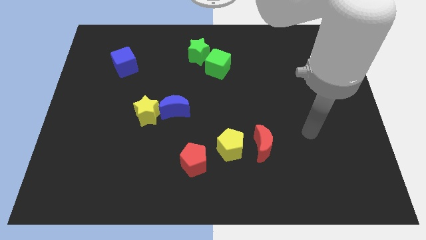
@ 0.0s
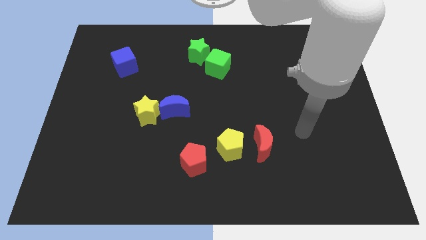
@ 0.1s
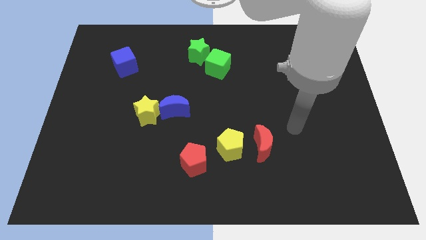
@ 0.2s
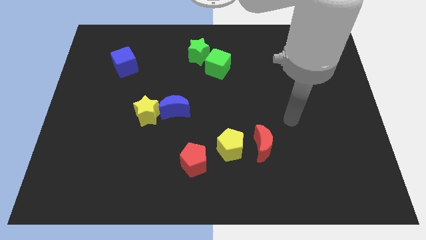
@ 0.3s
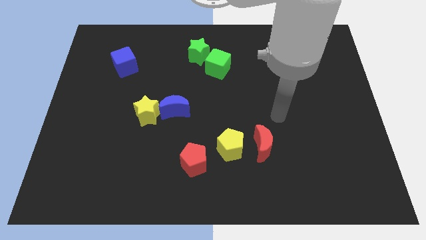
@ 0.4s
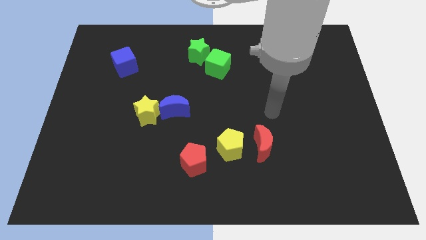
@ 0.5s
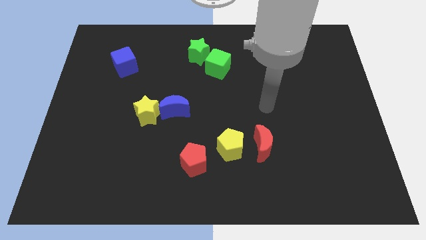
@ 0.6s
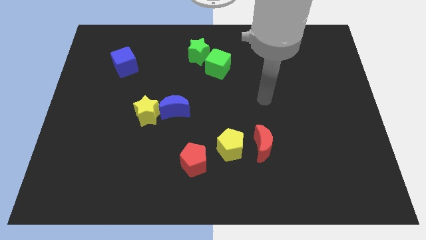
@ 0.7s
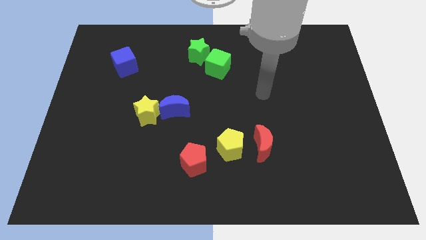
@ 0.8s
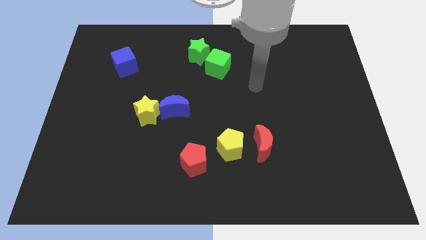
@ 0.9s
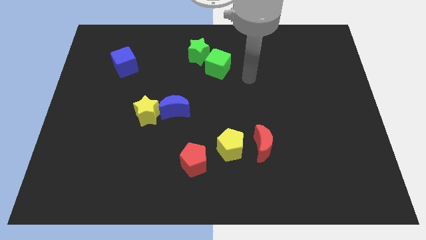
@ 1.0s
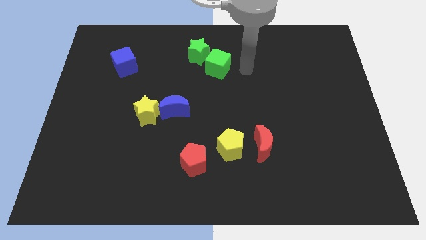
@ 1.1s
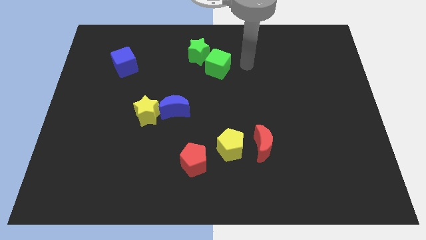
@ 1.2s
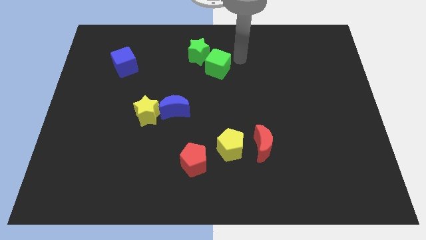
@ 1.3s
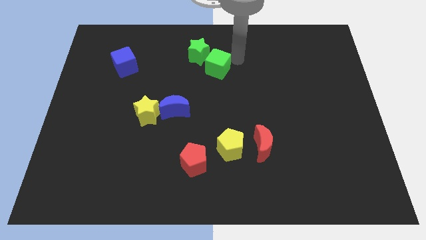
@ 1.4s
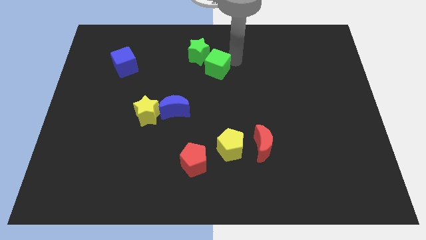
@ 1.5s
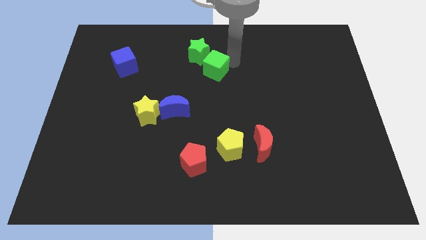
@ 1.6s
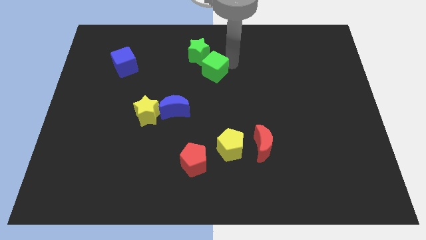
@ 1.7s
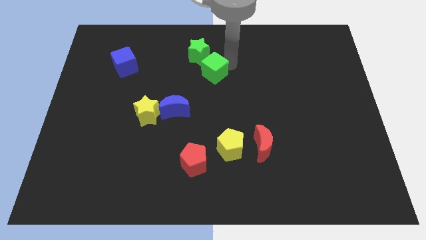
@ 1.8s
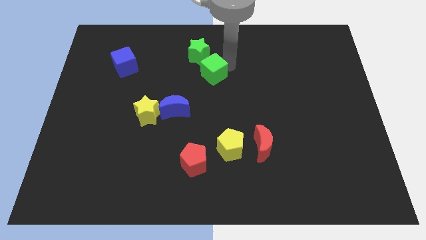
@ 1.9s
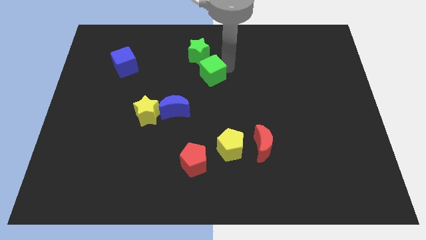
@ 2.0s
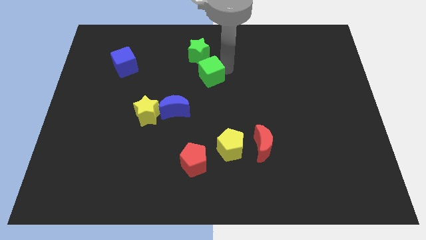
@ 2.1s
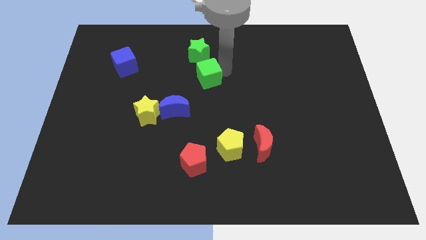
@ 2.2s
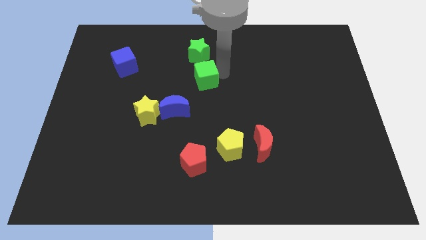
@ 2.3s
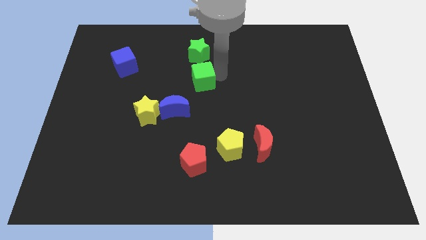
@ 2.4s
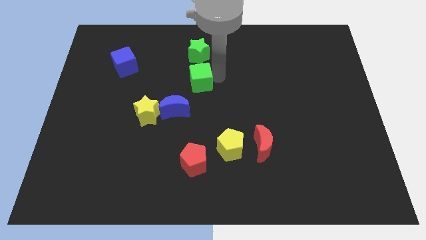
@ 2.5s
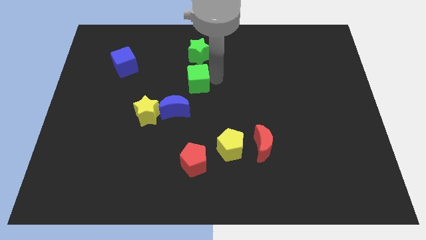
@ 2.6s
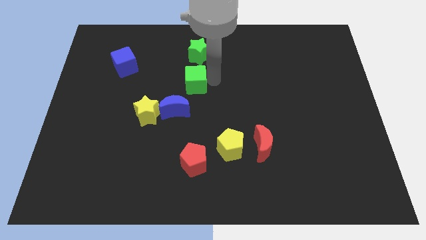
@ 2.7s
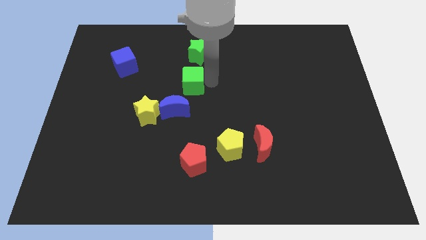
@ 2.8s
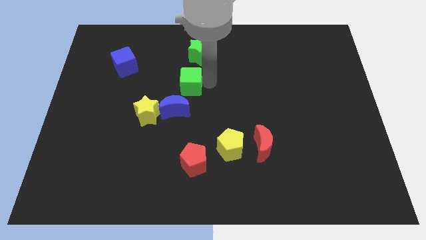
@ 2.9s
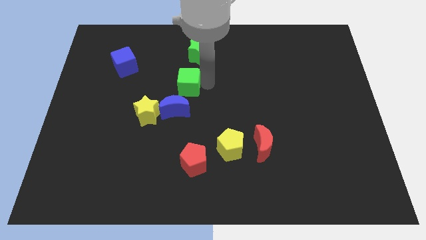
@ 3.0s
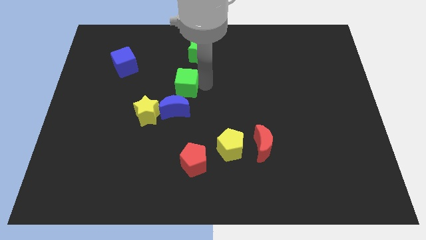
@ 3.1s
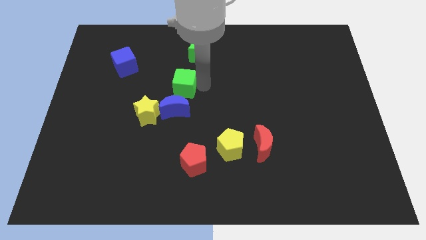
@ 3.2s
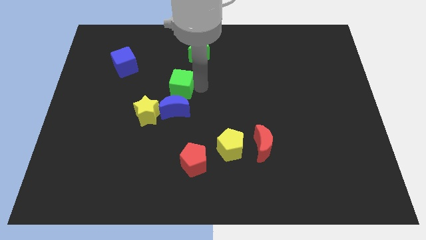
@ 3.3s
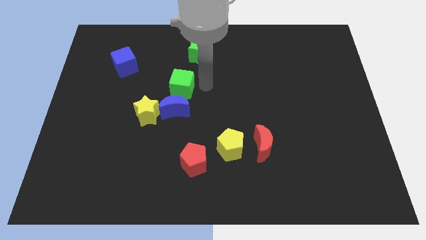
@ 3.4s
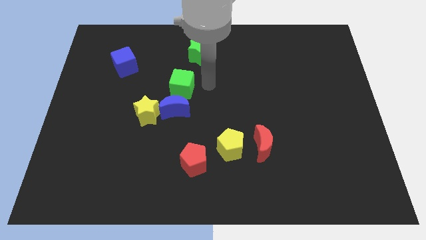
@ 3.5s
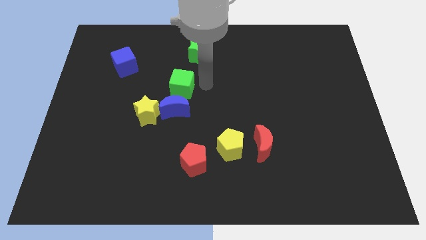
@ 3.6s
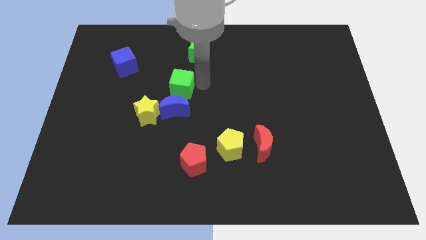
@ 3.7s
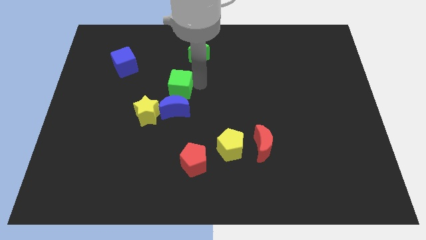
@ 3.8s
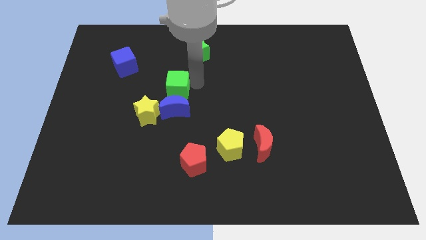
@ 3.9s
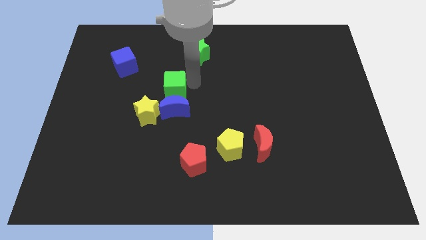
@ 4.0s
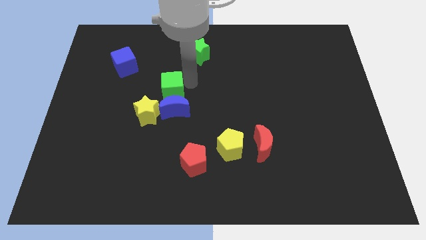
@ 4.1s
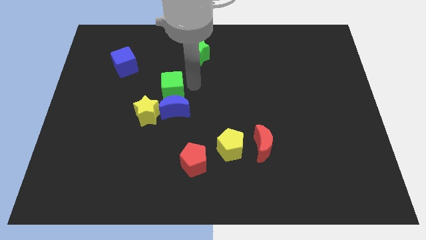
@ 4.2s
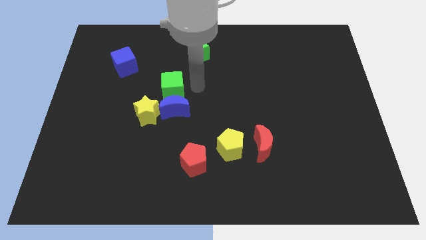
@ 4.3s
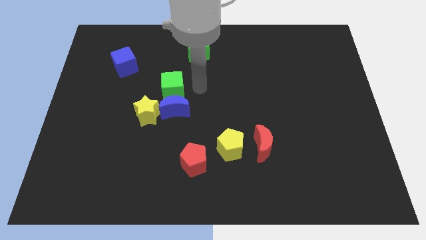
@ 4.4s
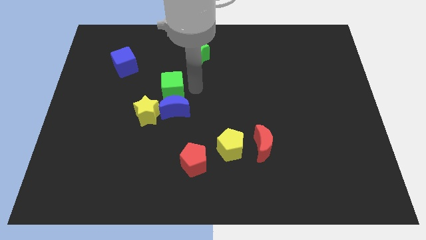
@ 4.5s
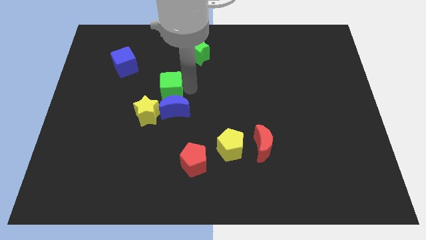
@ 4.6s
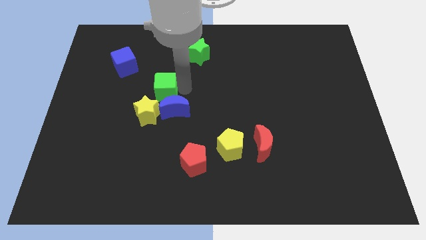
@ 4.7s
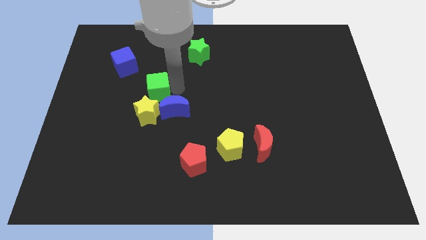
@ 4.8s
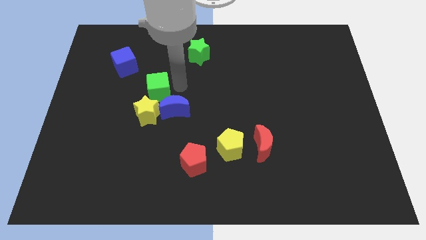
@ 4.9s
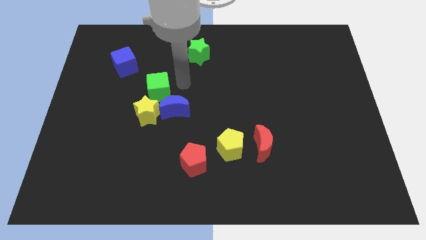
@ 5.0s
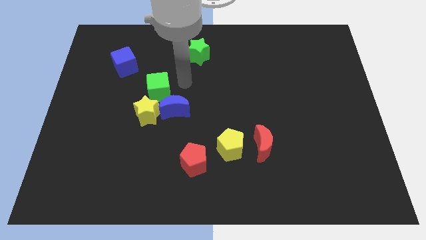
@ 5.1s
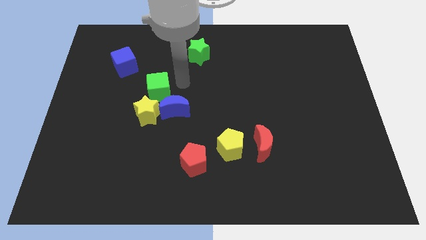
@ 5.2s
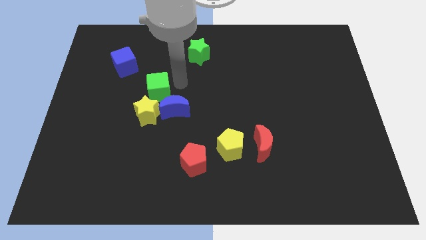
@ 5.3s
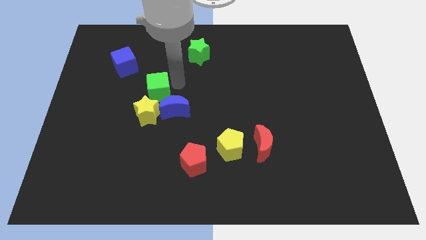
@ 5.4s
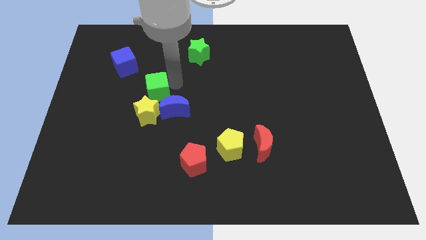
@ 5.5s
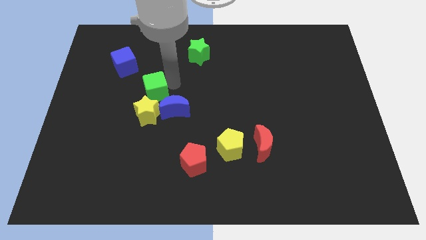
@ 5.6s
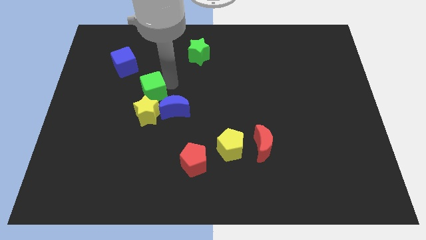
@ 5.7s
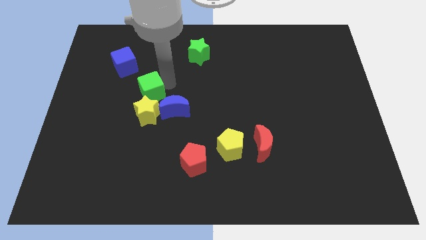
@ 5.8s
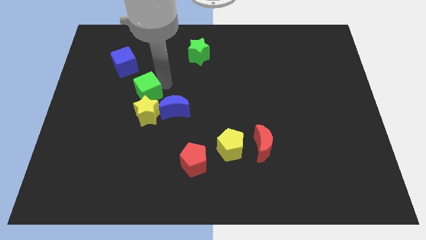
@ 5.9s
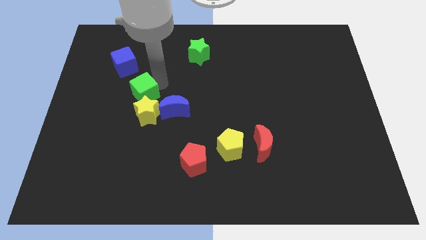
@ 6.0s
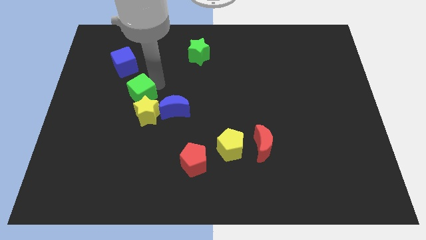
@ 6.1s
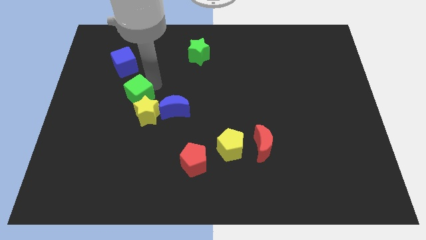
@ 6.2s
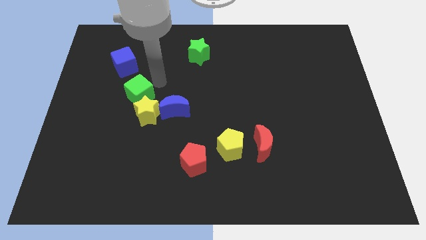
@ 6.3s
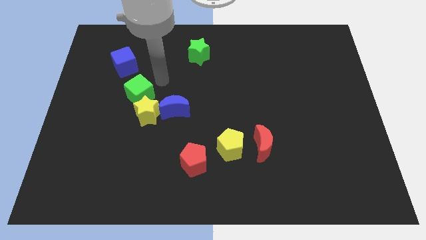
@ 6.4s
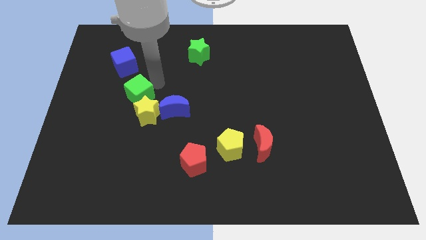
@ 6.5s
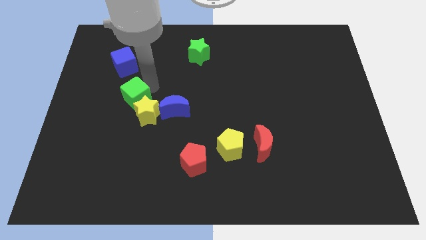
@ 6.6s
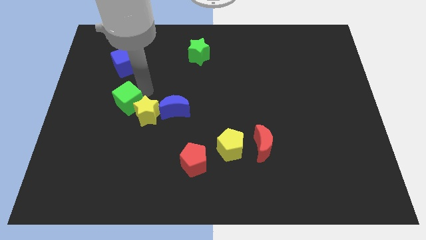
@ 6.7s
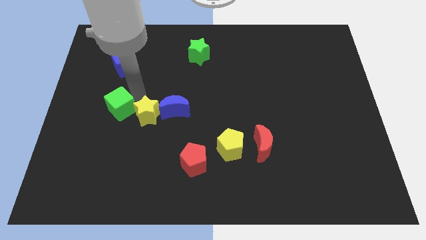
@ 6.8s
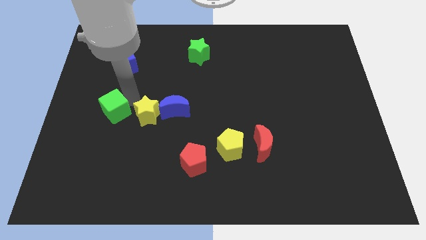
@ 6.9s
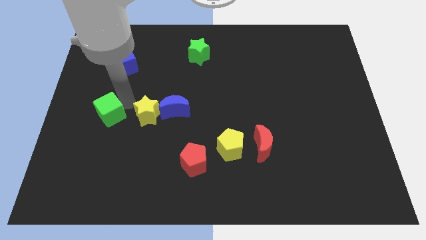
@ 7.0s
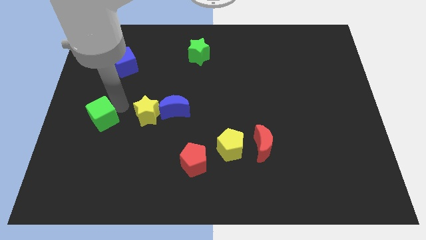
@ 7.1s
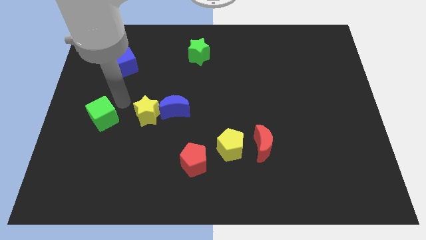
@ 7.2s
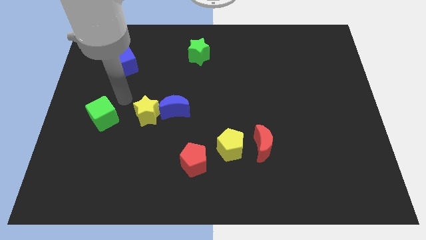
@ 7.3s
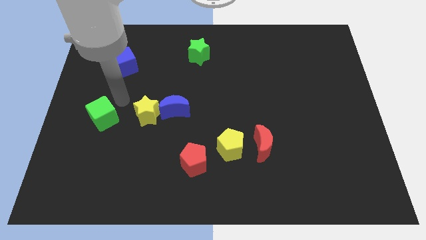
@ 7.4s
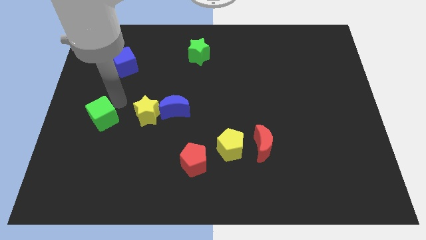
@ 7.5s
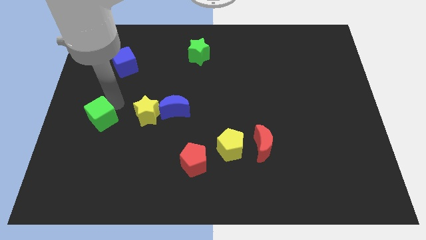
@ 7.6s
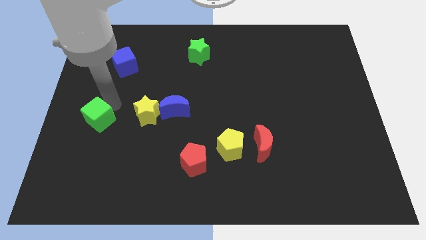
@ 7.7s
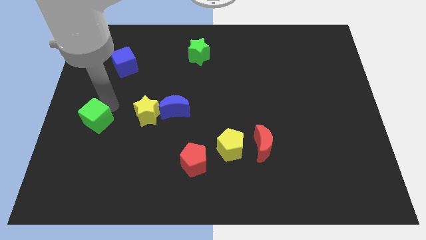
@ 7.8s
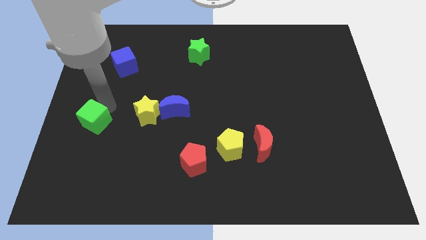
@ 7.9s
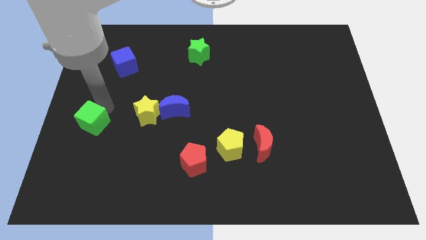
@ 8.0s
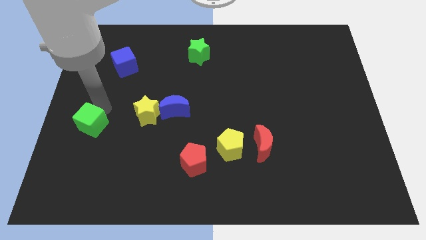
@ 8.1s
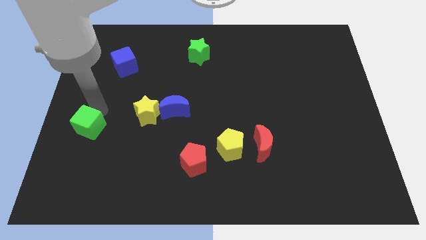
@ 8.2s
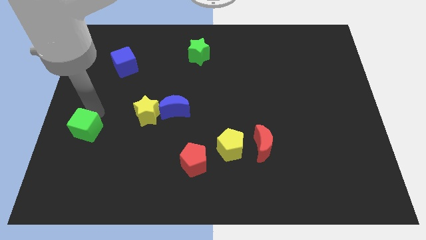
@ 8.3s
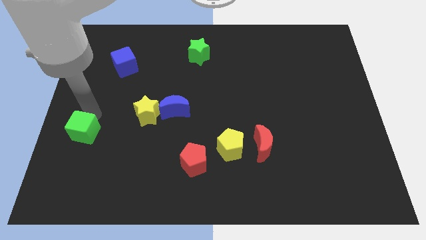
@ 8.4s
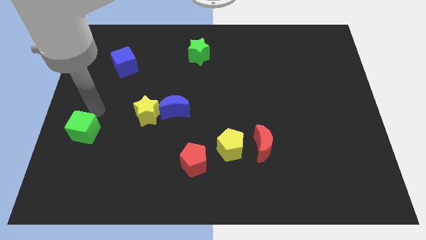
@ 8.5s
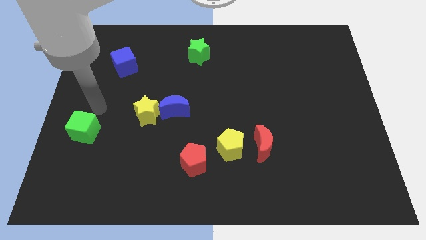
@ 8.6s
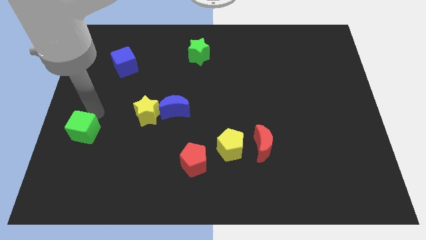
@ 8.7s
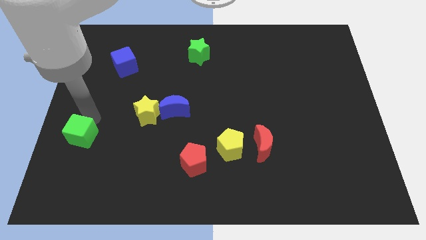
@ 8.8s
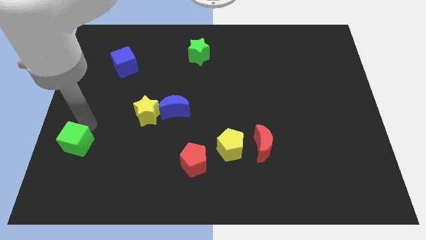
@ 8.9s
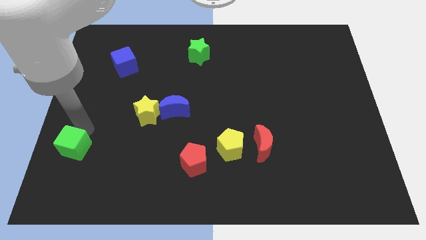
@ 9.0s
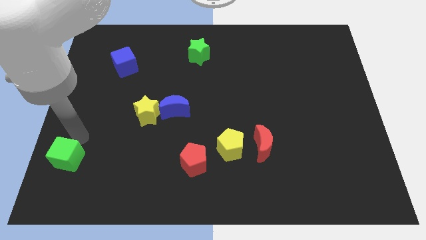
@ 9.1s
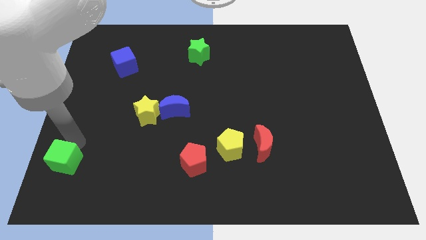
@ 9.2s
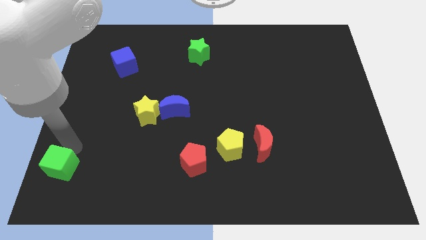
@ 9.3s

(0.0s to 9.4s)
push the green cube to the lower left corner
